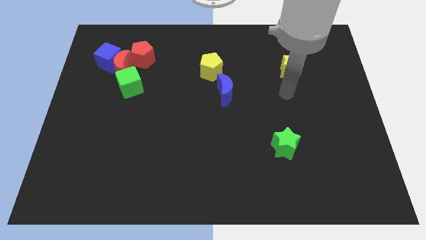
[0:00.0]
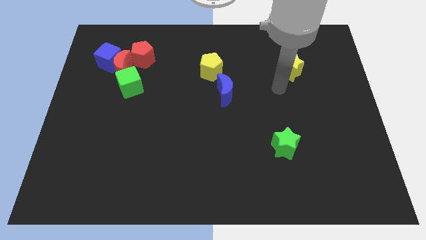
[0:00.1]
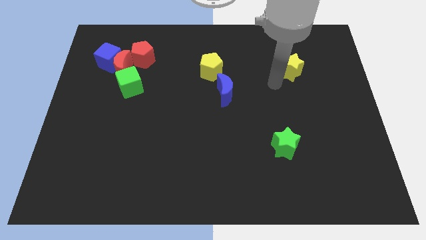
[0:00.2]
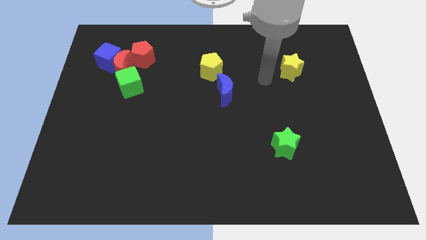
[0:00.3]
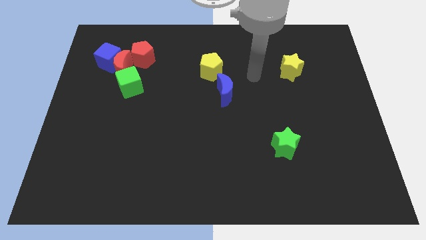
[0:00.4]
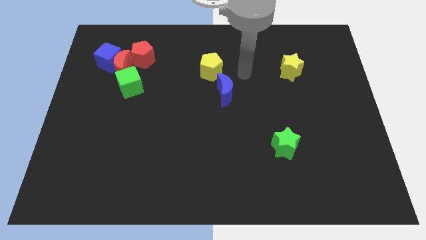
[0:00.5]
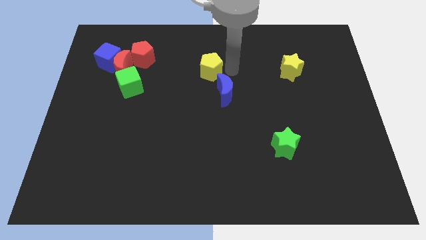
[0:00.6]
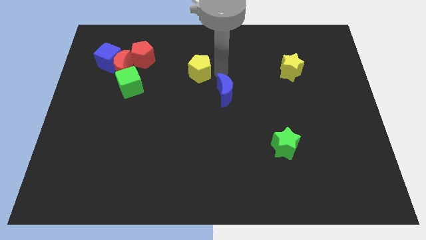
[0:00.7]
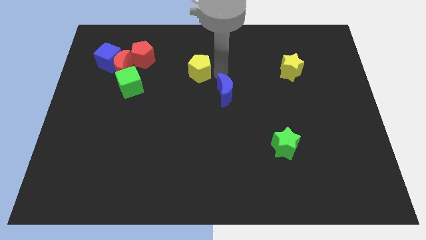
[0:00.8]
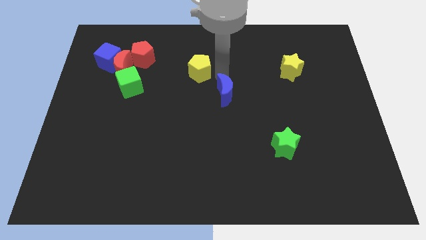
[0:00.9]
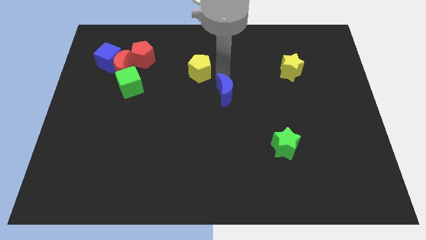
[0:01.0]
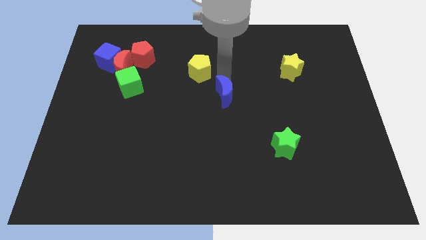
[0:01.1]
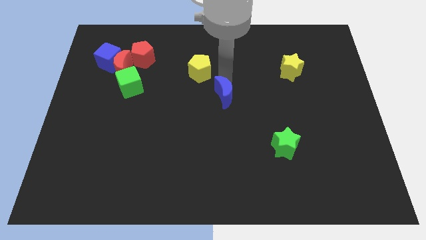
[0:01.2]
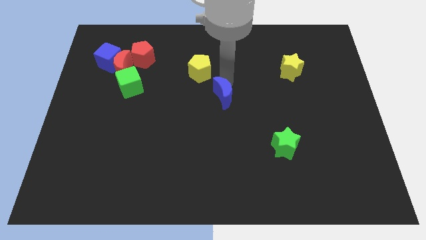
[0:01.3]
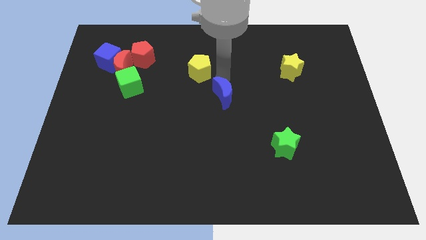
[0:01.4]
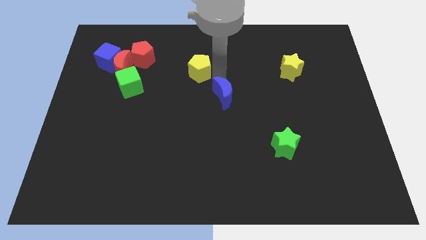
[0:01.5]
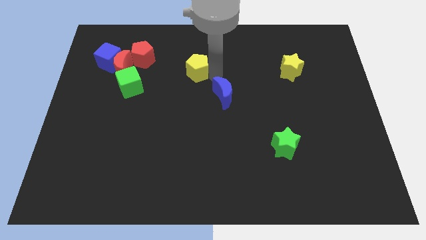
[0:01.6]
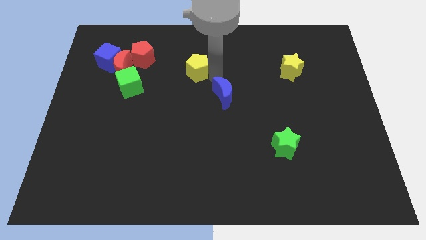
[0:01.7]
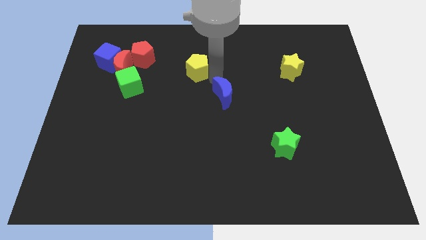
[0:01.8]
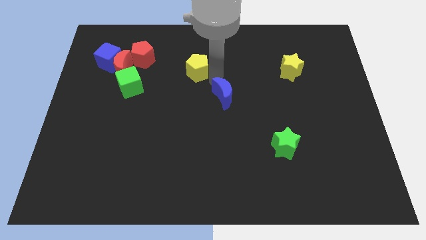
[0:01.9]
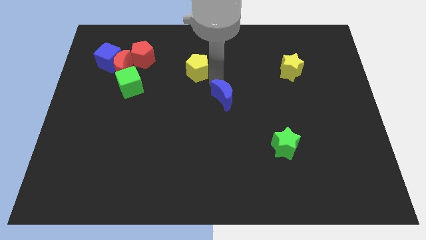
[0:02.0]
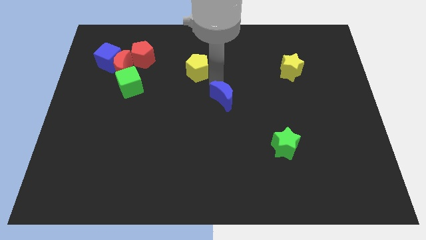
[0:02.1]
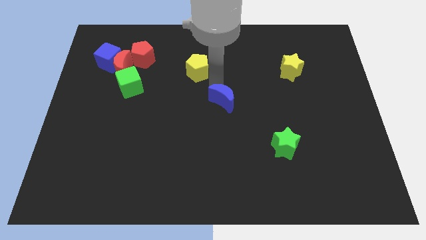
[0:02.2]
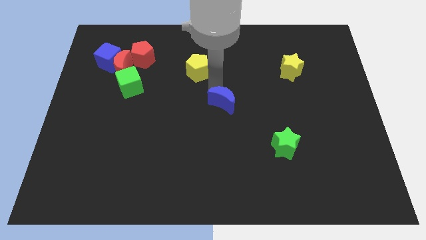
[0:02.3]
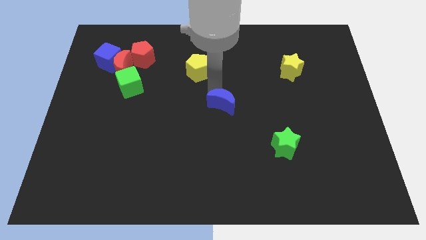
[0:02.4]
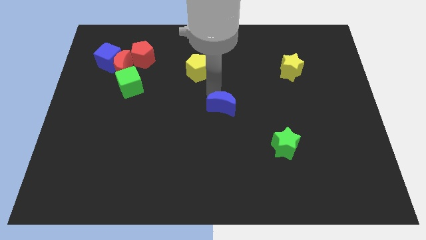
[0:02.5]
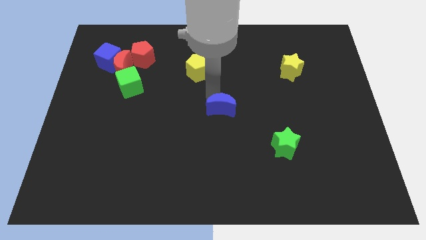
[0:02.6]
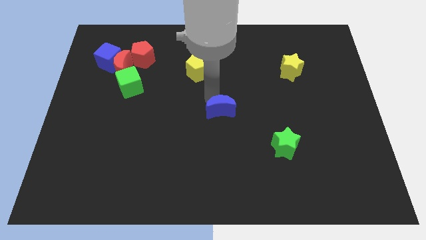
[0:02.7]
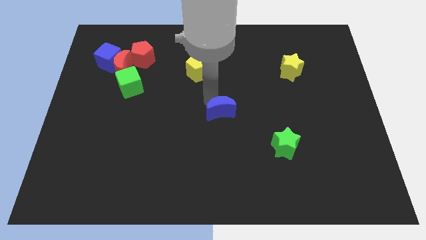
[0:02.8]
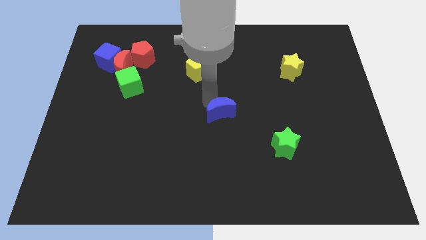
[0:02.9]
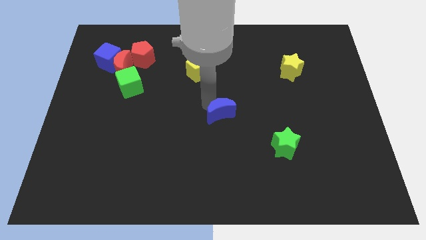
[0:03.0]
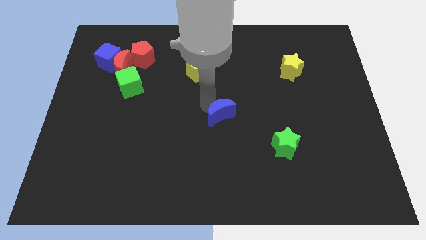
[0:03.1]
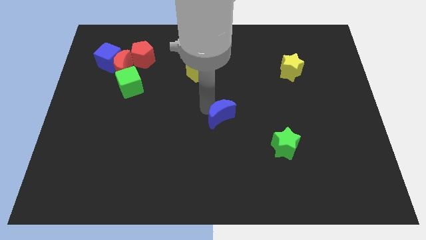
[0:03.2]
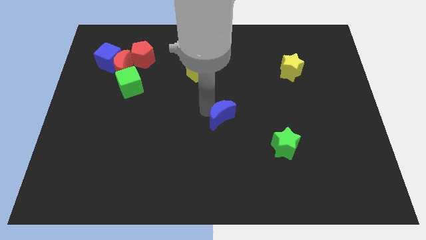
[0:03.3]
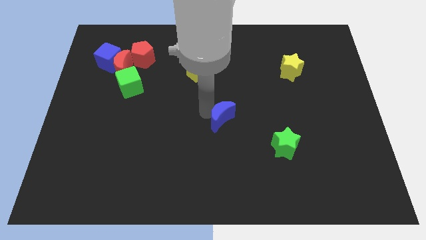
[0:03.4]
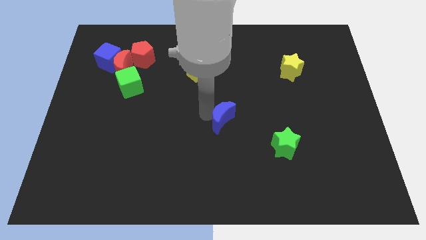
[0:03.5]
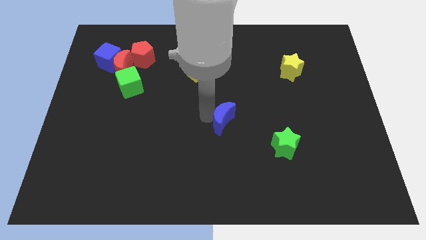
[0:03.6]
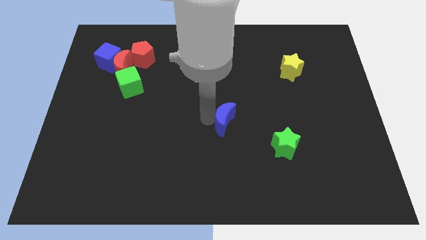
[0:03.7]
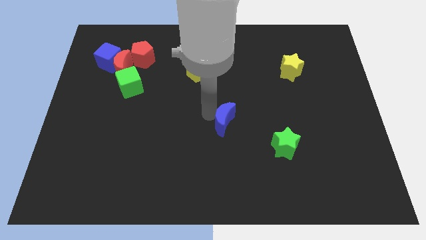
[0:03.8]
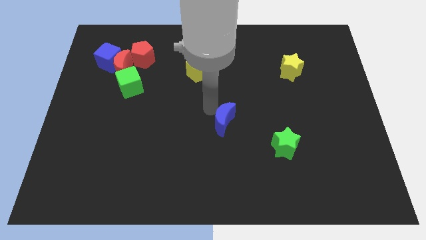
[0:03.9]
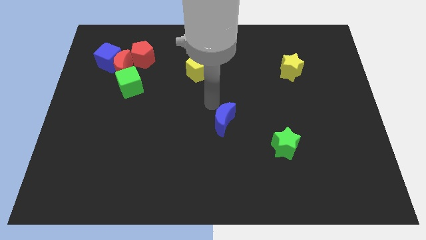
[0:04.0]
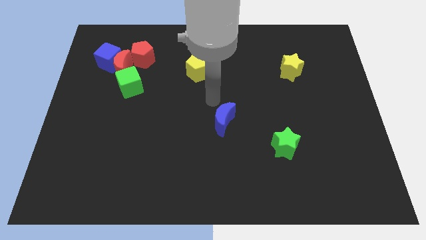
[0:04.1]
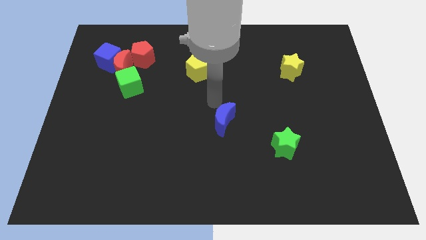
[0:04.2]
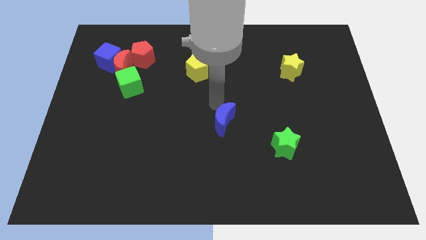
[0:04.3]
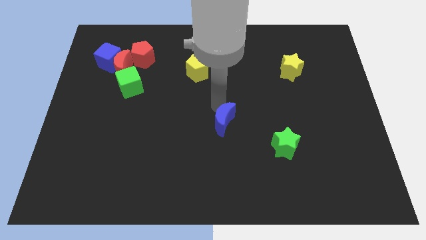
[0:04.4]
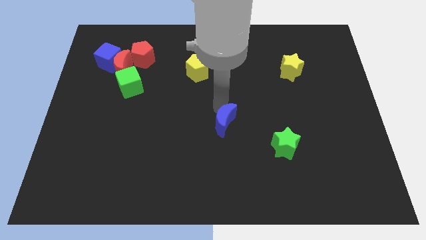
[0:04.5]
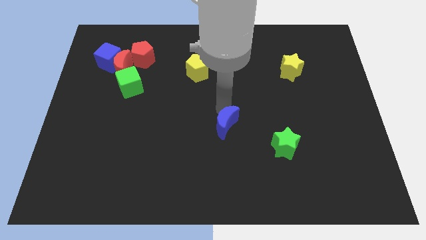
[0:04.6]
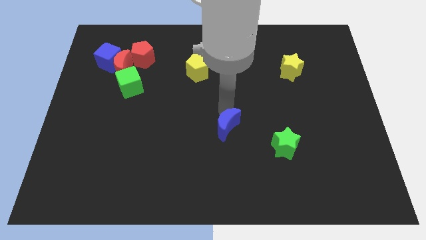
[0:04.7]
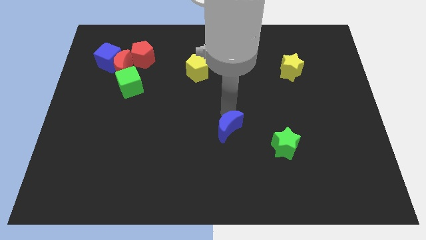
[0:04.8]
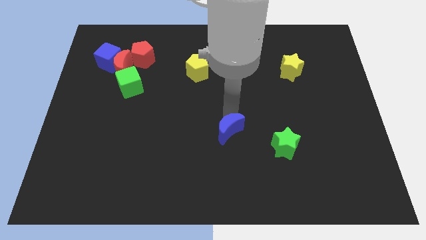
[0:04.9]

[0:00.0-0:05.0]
put the blue moon just left of the green star

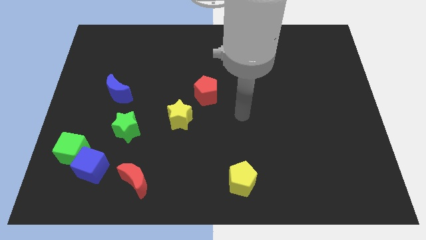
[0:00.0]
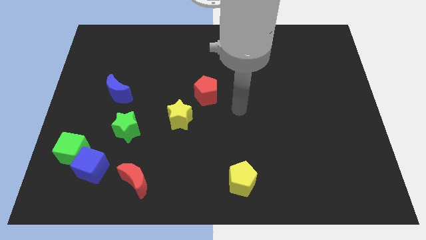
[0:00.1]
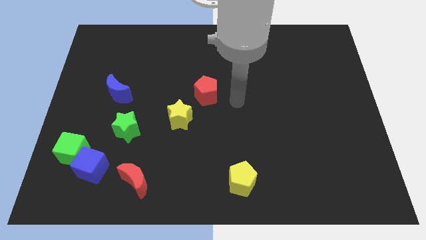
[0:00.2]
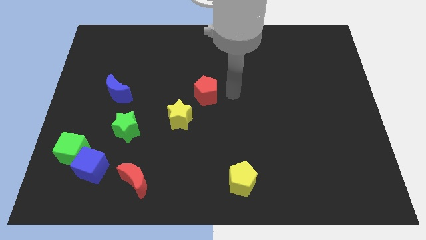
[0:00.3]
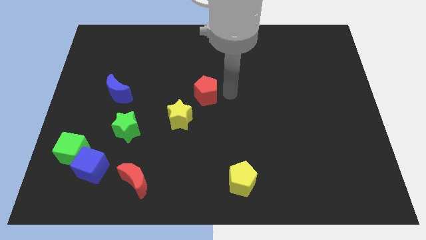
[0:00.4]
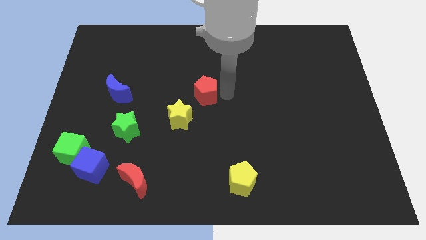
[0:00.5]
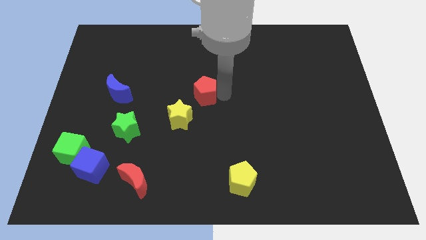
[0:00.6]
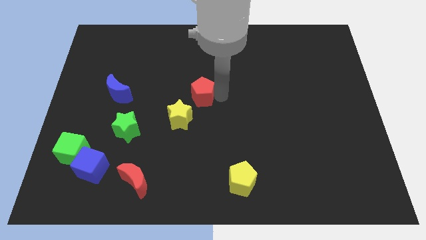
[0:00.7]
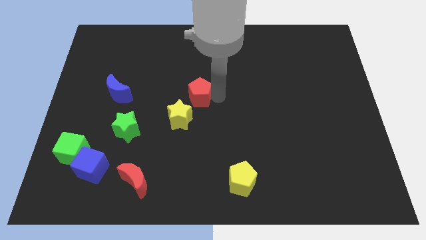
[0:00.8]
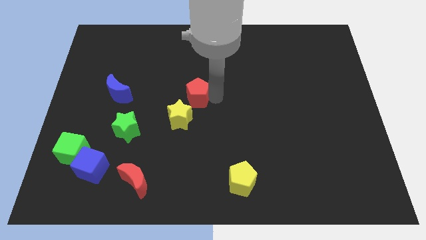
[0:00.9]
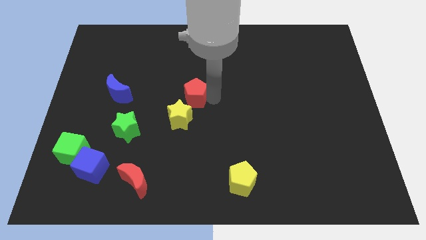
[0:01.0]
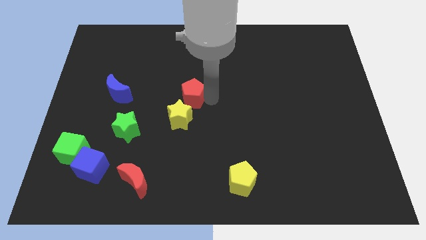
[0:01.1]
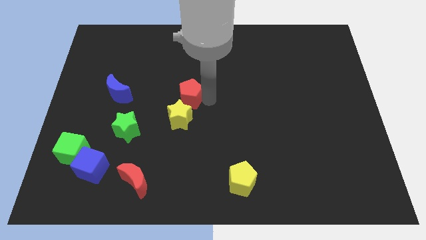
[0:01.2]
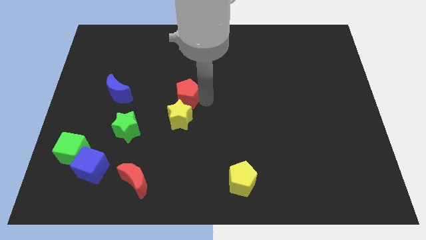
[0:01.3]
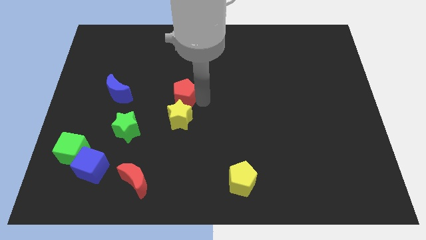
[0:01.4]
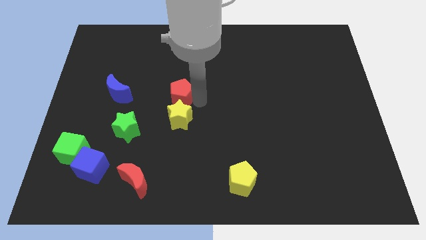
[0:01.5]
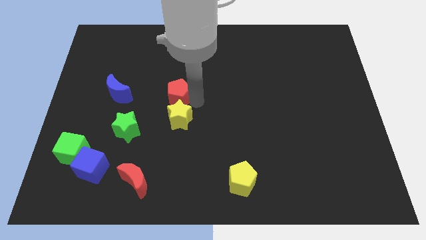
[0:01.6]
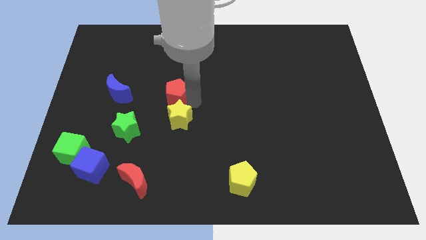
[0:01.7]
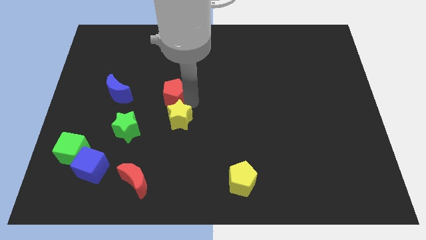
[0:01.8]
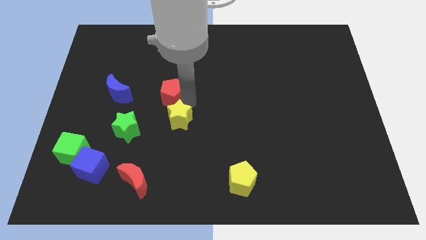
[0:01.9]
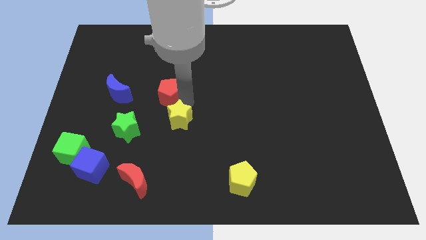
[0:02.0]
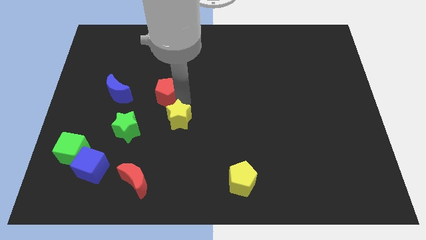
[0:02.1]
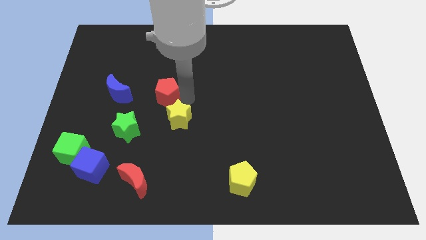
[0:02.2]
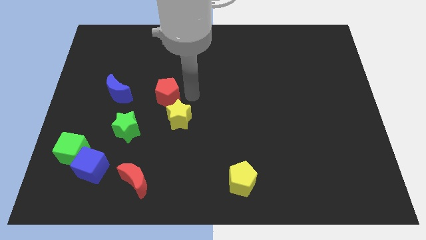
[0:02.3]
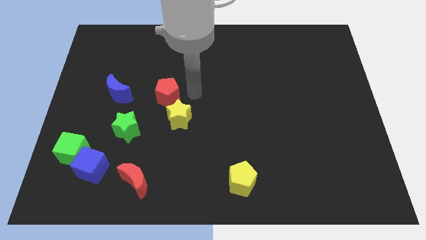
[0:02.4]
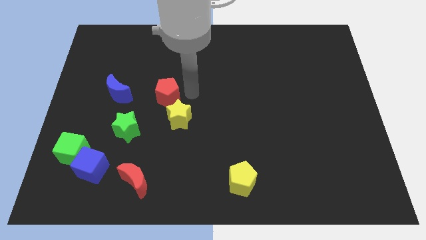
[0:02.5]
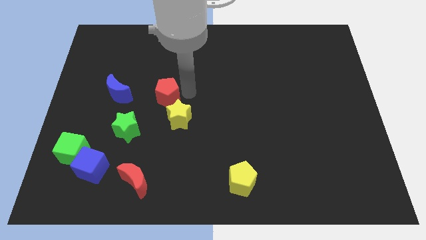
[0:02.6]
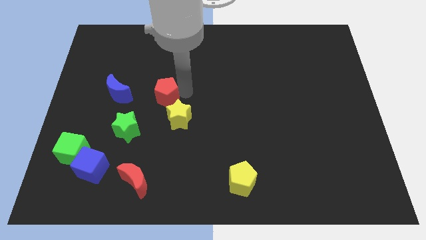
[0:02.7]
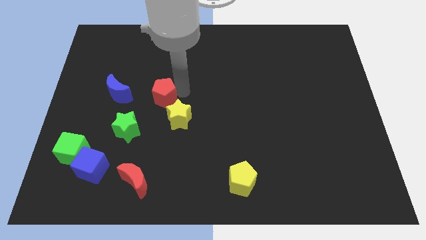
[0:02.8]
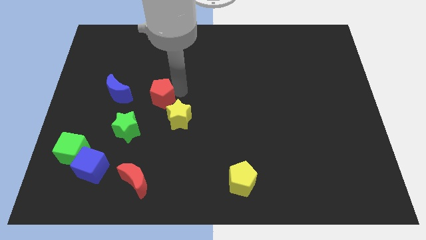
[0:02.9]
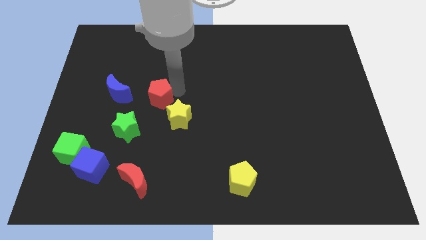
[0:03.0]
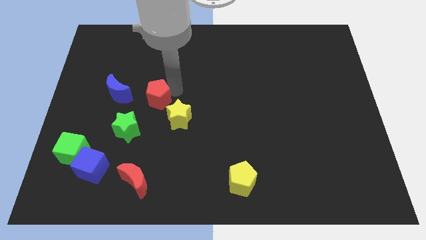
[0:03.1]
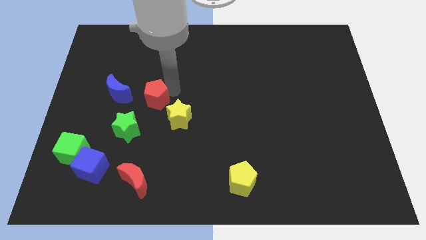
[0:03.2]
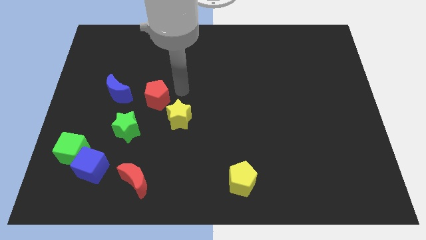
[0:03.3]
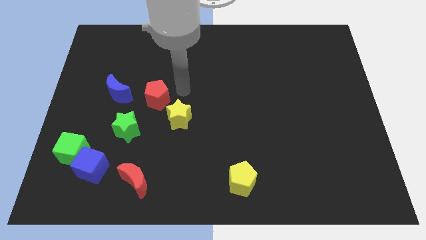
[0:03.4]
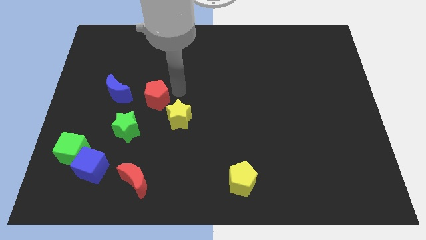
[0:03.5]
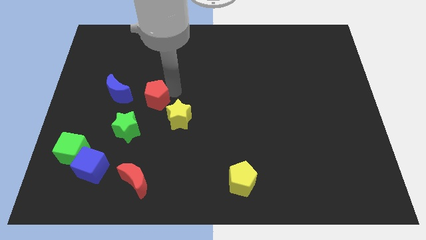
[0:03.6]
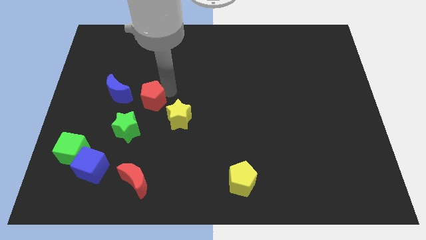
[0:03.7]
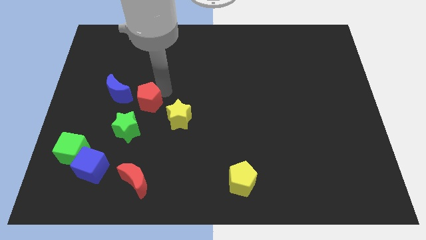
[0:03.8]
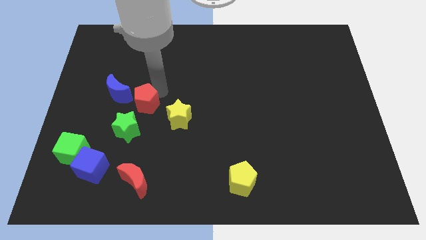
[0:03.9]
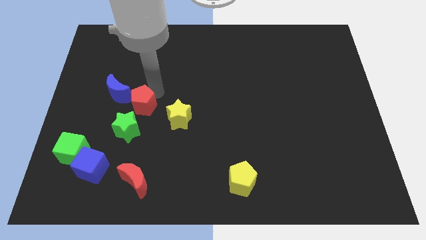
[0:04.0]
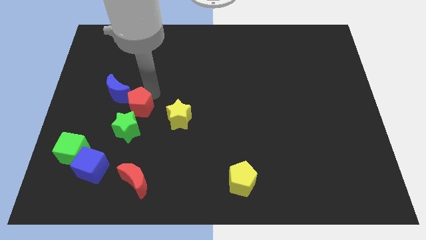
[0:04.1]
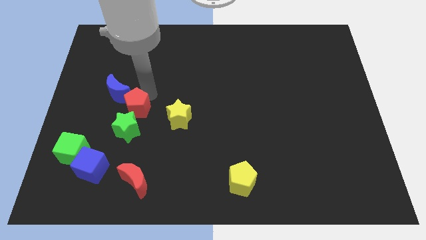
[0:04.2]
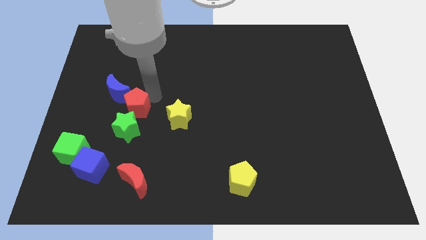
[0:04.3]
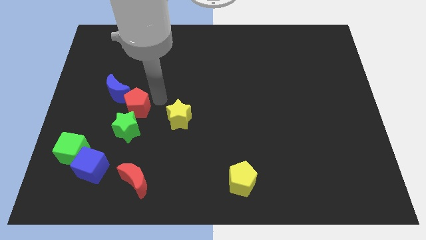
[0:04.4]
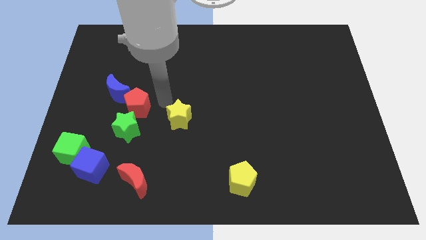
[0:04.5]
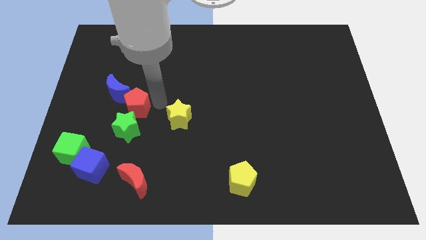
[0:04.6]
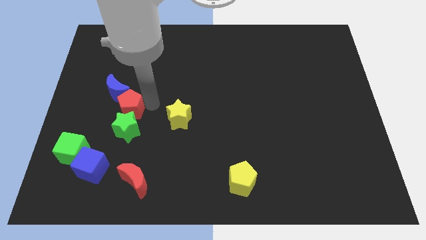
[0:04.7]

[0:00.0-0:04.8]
put the red pentagon to the top left side of the green star
